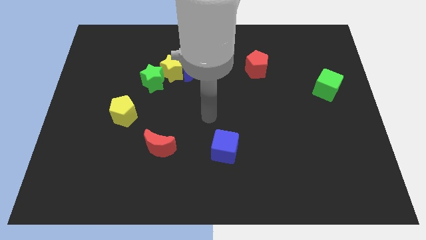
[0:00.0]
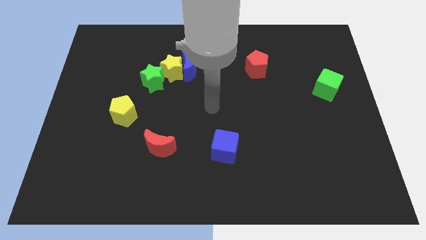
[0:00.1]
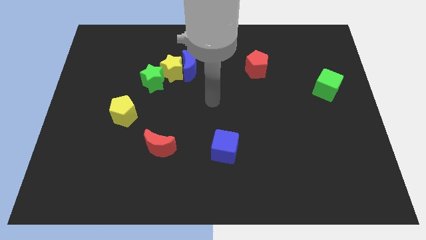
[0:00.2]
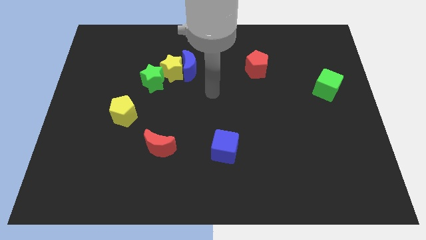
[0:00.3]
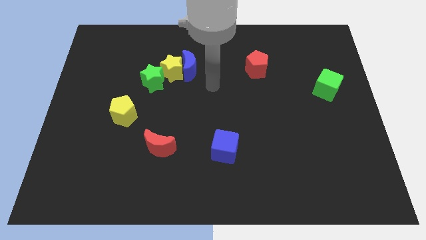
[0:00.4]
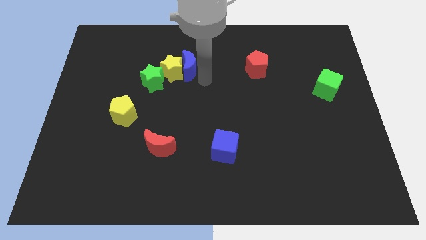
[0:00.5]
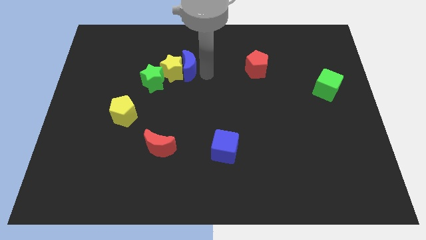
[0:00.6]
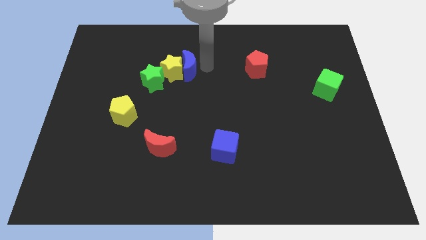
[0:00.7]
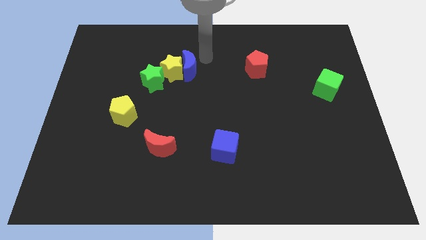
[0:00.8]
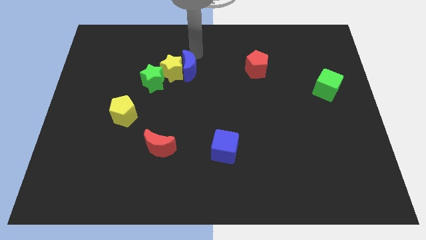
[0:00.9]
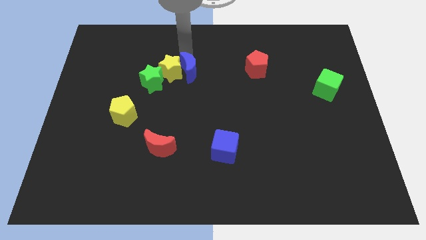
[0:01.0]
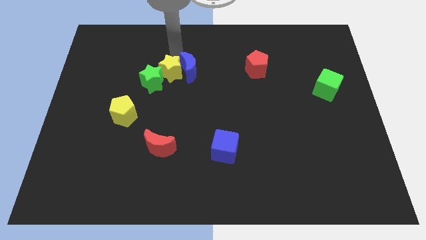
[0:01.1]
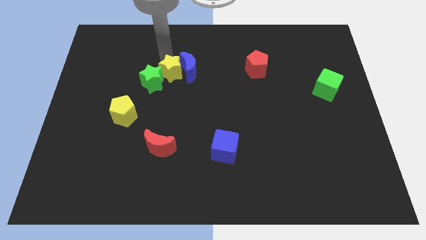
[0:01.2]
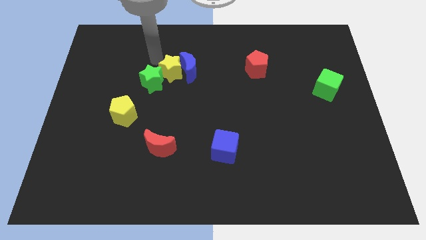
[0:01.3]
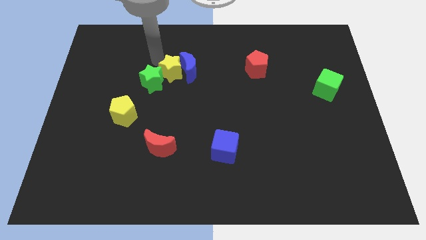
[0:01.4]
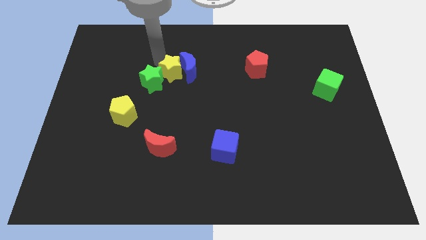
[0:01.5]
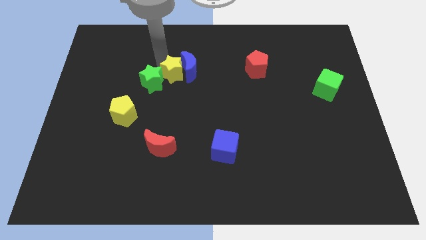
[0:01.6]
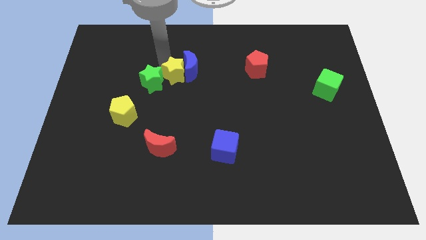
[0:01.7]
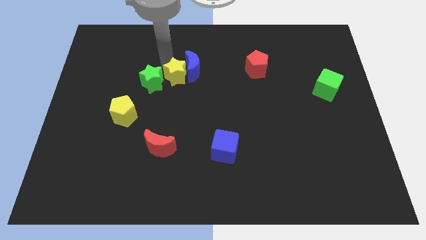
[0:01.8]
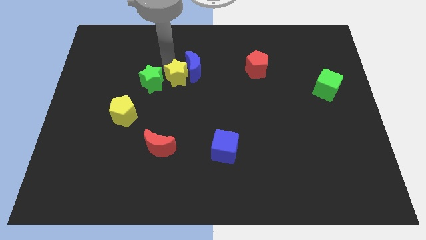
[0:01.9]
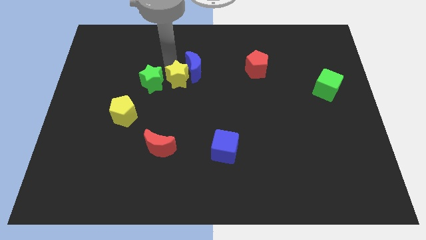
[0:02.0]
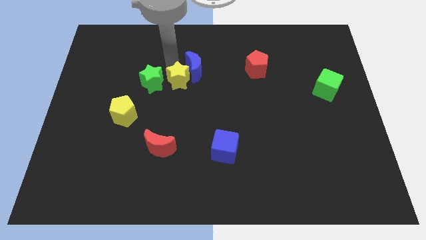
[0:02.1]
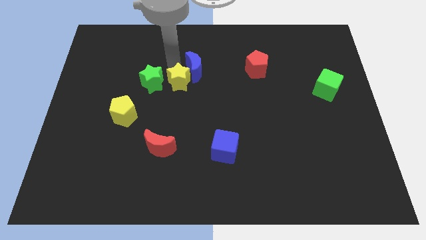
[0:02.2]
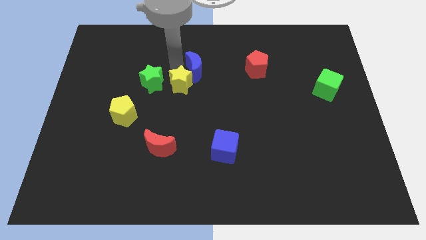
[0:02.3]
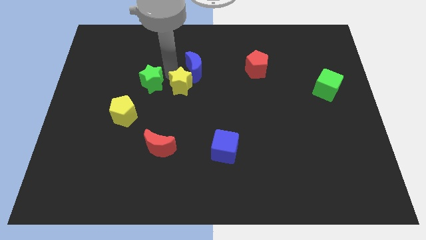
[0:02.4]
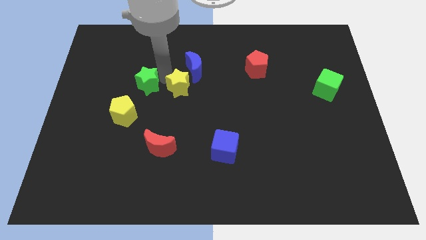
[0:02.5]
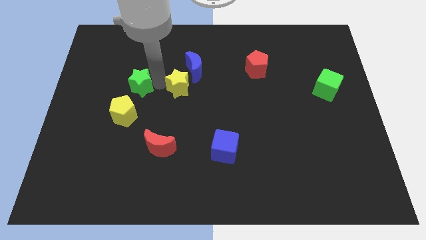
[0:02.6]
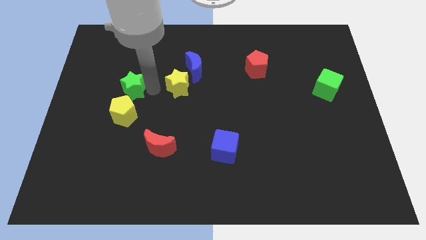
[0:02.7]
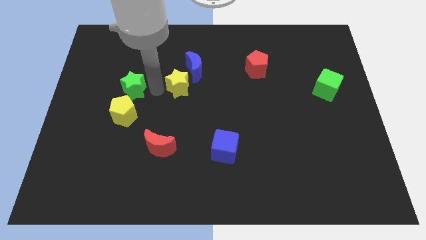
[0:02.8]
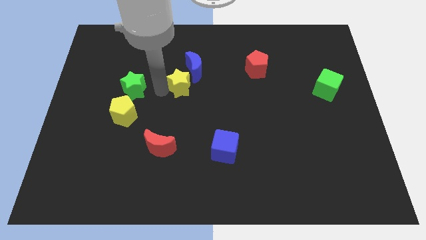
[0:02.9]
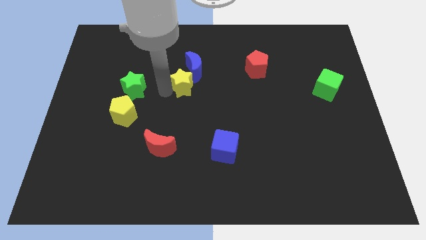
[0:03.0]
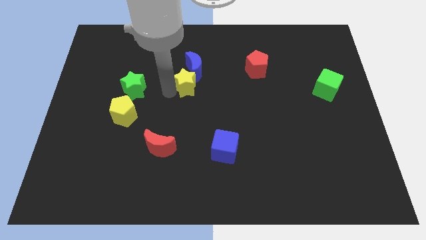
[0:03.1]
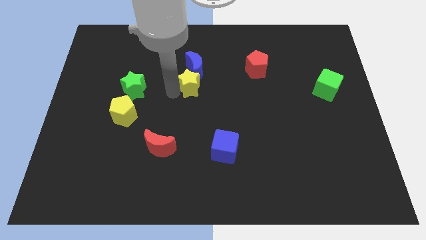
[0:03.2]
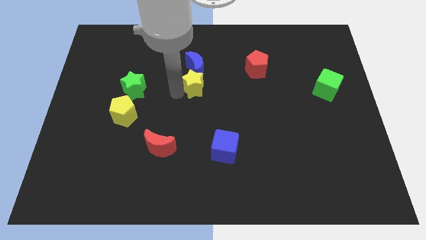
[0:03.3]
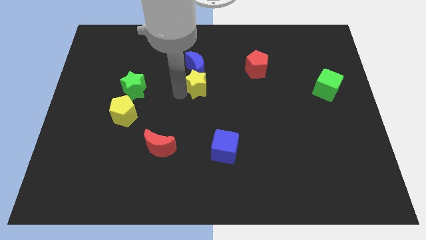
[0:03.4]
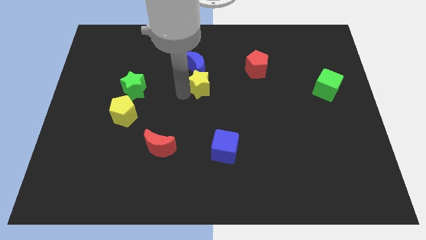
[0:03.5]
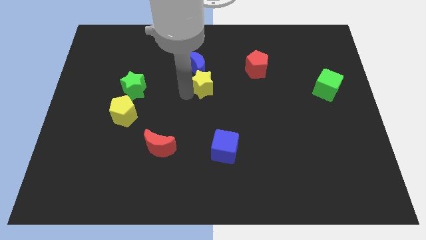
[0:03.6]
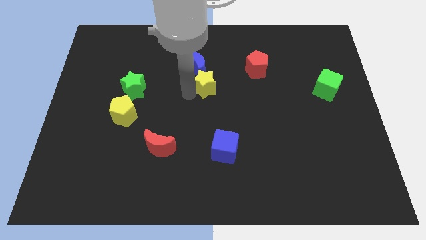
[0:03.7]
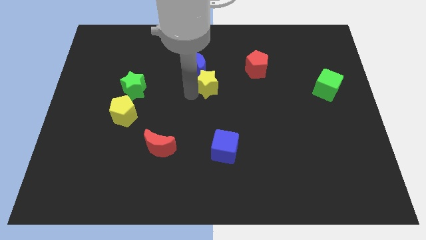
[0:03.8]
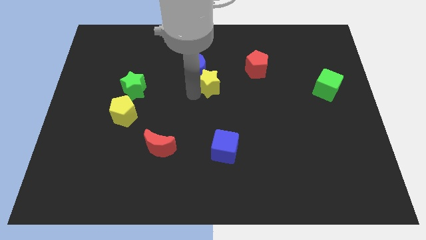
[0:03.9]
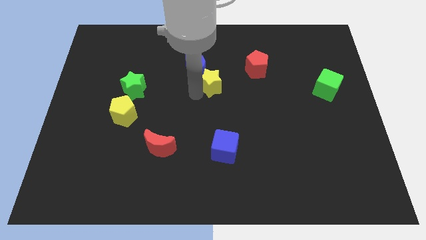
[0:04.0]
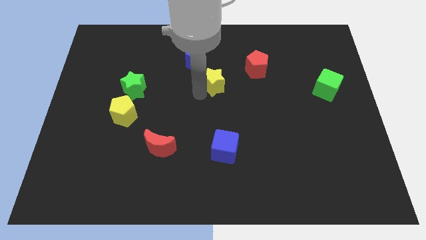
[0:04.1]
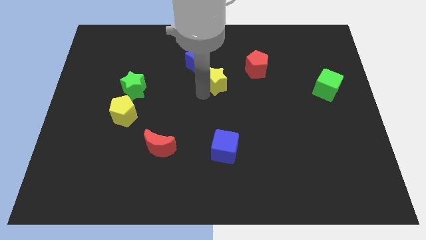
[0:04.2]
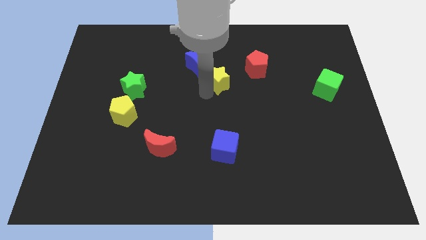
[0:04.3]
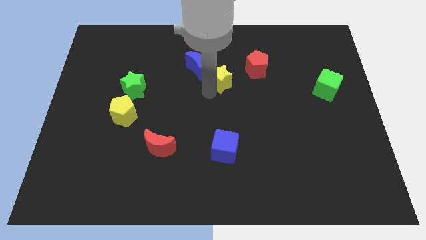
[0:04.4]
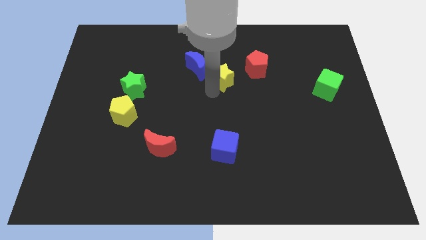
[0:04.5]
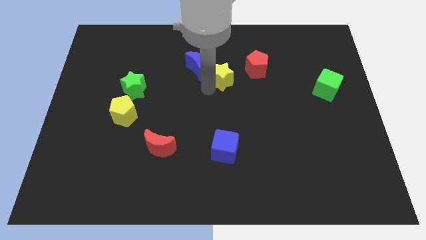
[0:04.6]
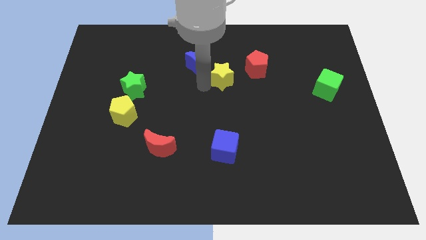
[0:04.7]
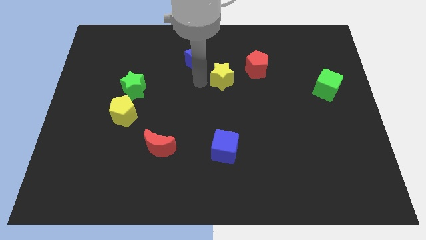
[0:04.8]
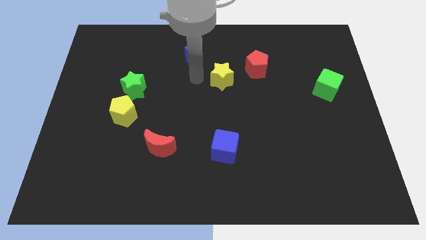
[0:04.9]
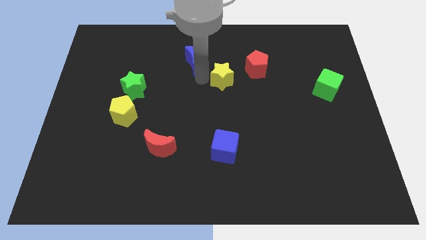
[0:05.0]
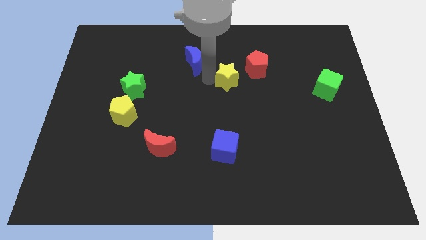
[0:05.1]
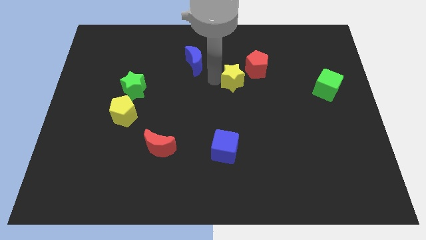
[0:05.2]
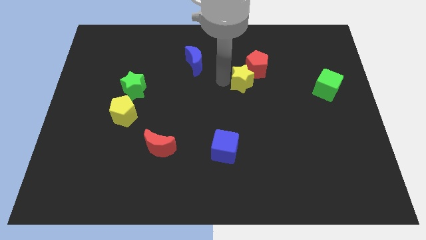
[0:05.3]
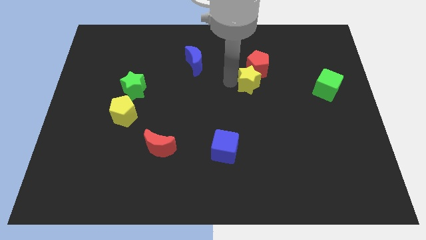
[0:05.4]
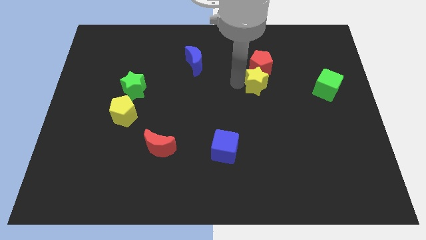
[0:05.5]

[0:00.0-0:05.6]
slide the yellow star to the right

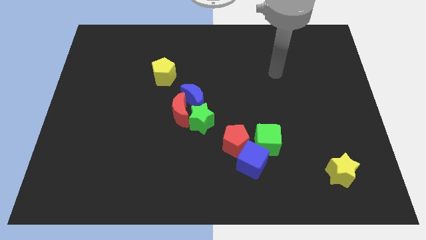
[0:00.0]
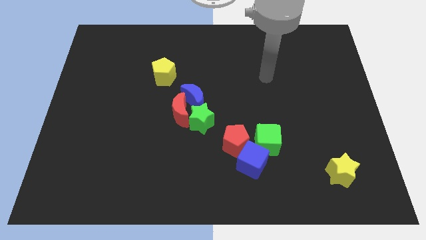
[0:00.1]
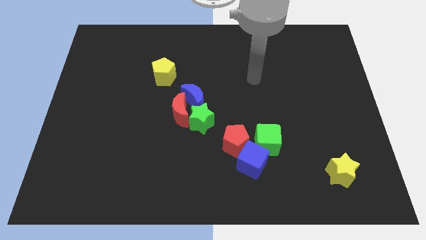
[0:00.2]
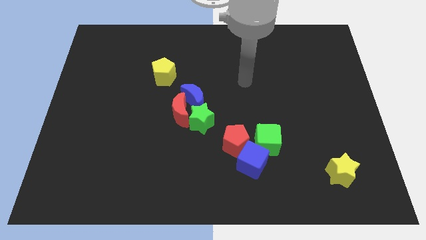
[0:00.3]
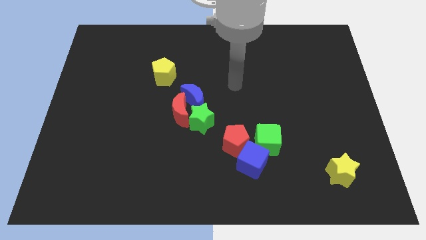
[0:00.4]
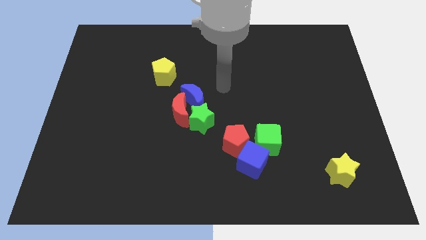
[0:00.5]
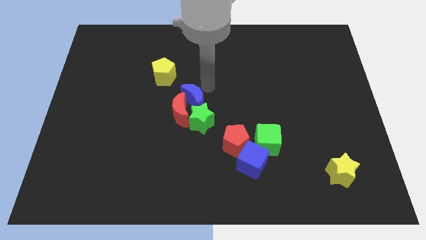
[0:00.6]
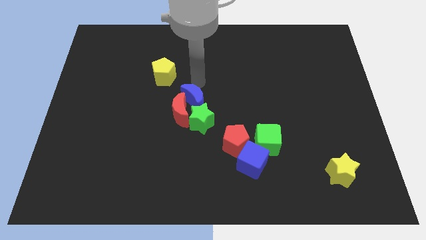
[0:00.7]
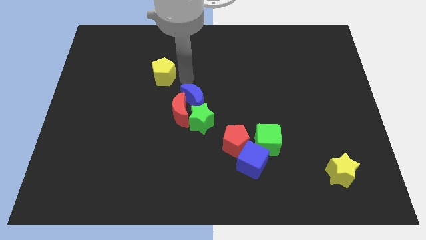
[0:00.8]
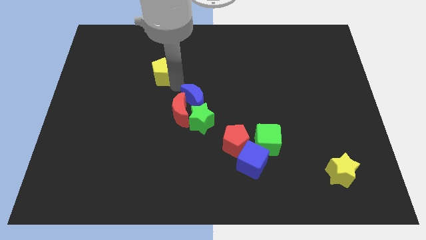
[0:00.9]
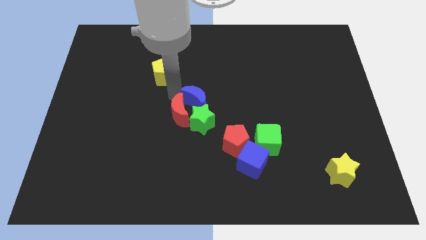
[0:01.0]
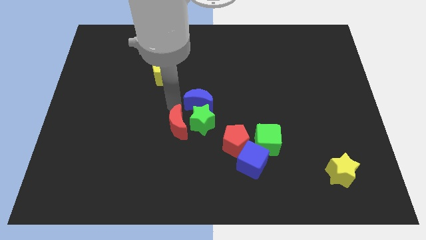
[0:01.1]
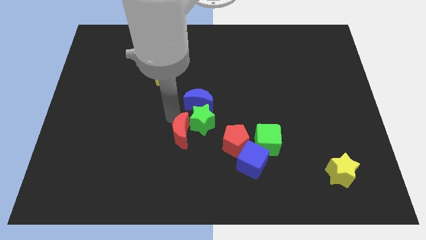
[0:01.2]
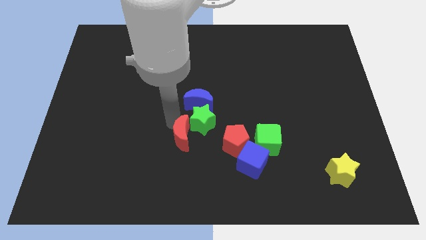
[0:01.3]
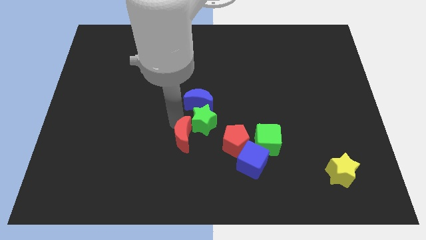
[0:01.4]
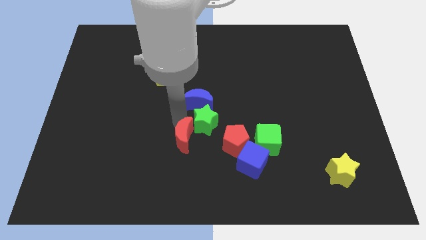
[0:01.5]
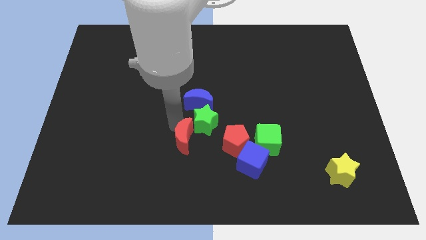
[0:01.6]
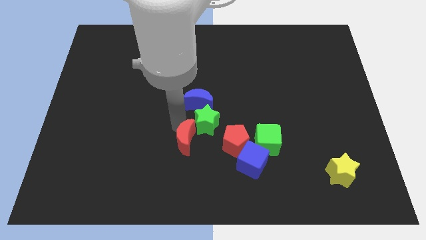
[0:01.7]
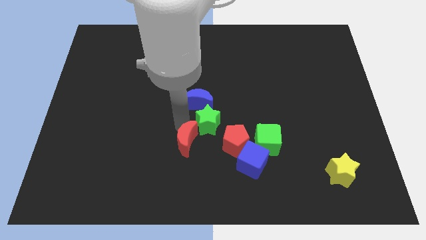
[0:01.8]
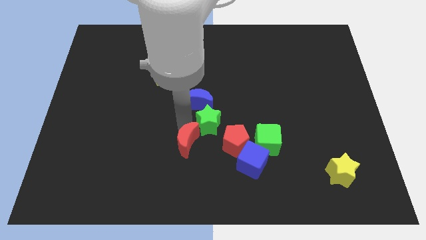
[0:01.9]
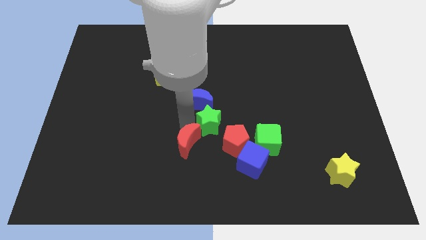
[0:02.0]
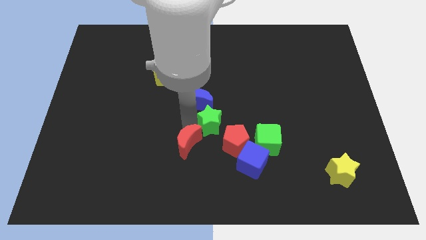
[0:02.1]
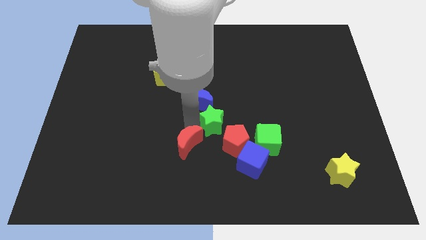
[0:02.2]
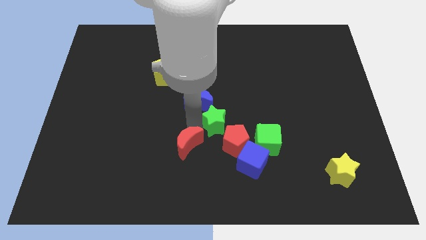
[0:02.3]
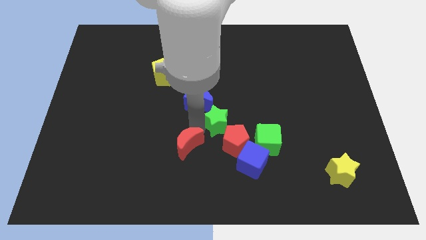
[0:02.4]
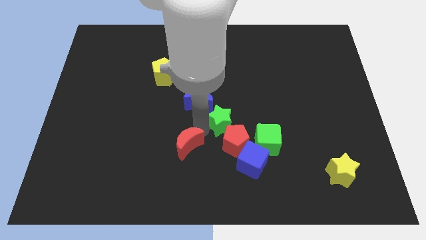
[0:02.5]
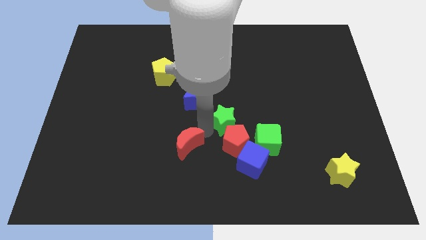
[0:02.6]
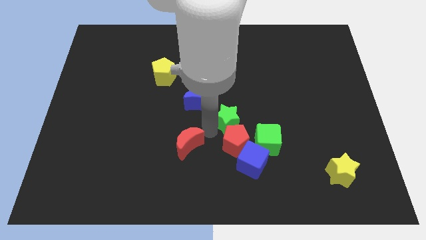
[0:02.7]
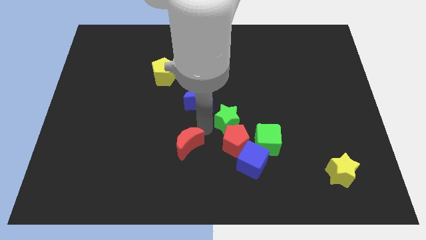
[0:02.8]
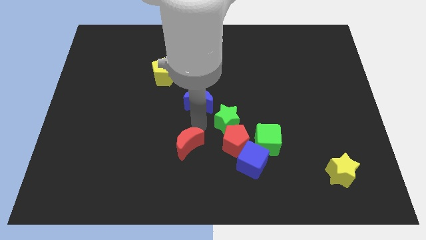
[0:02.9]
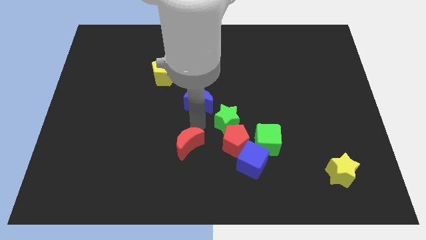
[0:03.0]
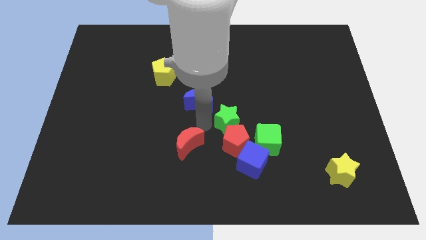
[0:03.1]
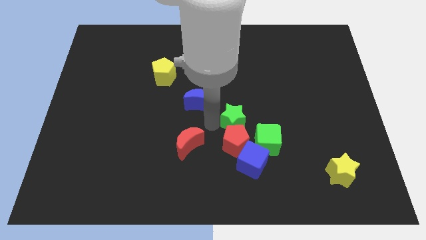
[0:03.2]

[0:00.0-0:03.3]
slightly move the green star to the right
